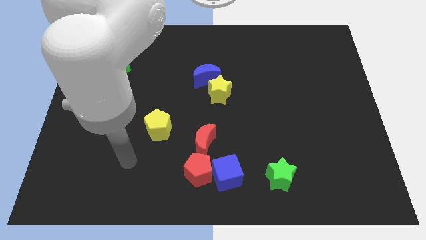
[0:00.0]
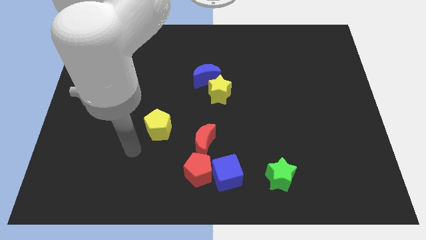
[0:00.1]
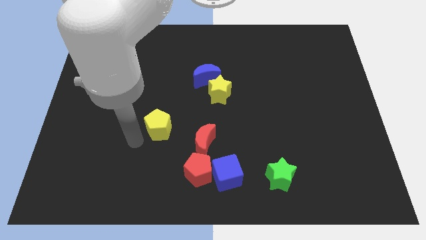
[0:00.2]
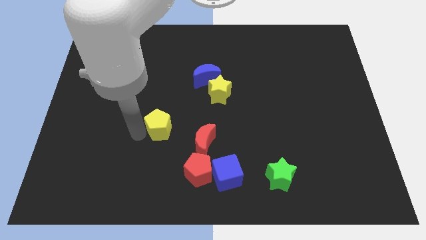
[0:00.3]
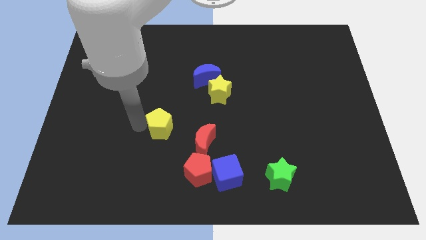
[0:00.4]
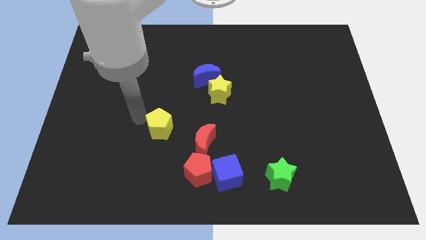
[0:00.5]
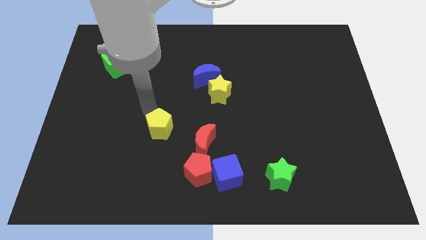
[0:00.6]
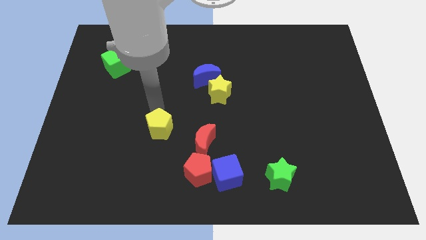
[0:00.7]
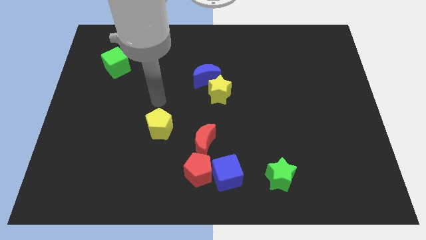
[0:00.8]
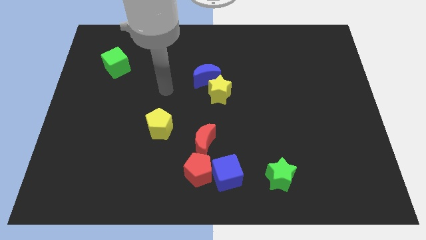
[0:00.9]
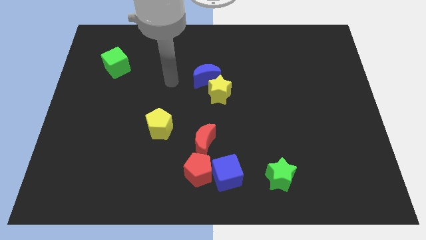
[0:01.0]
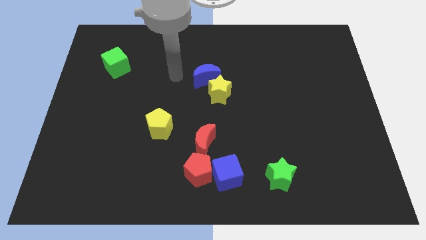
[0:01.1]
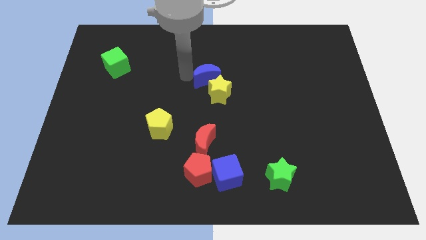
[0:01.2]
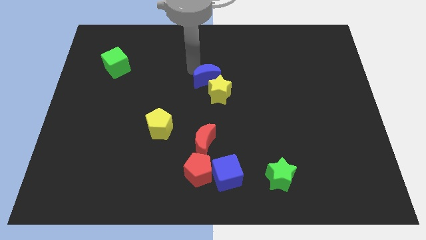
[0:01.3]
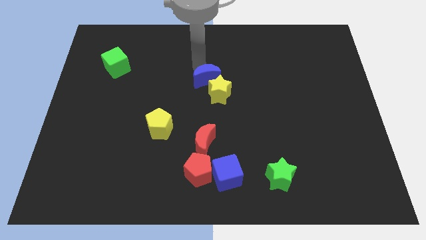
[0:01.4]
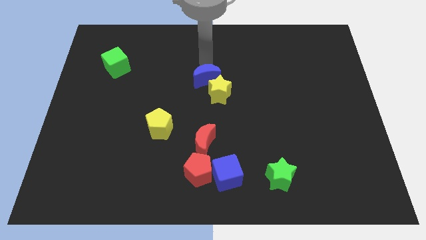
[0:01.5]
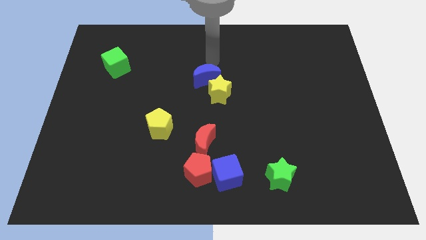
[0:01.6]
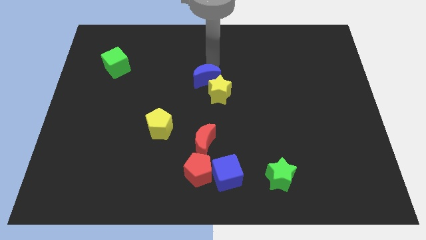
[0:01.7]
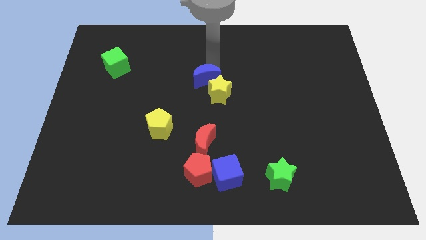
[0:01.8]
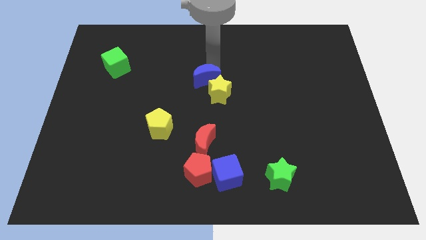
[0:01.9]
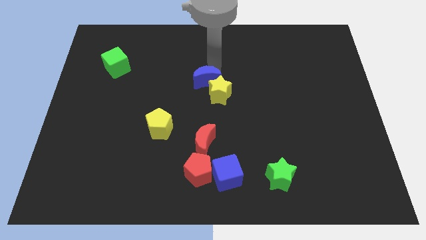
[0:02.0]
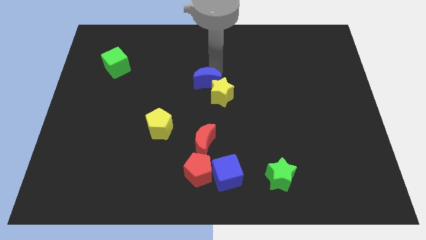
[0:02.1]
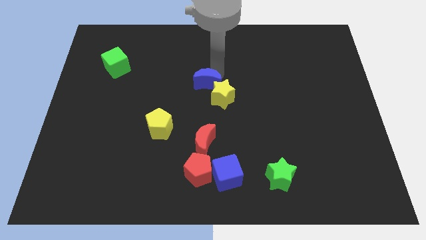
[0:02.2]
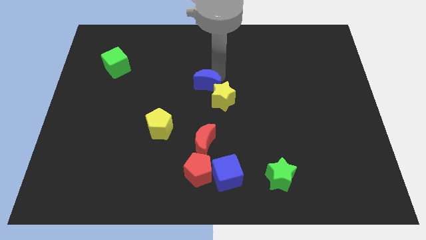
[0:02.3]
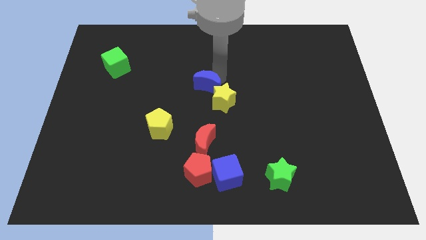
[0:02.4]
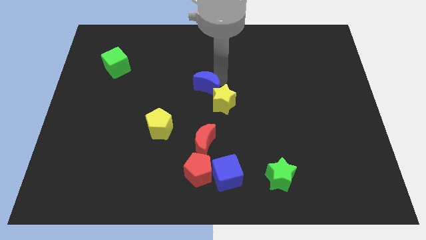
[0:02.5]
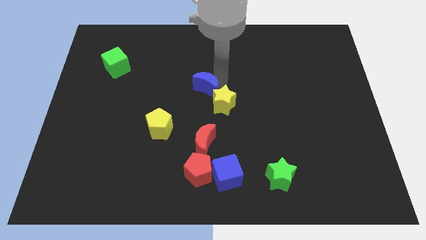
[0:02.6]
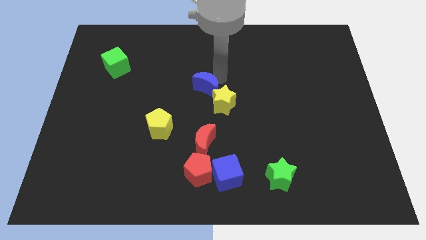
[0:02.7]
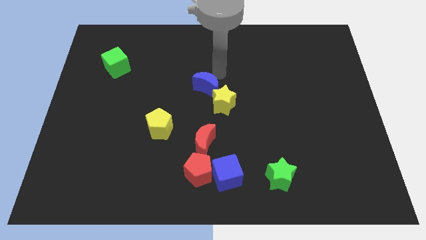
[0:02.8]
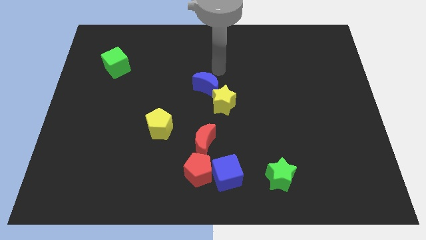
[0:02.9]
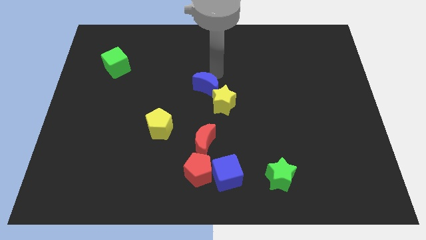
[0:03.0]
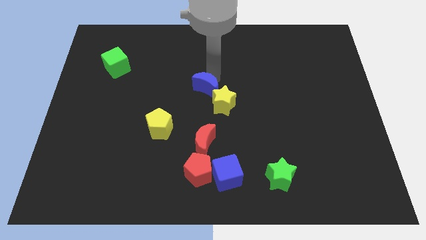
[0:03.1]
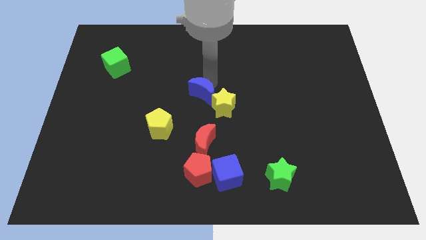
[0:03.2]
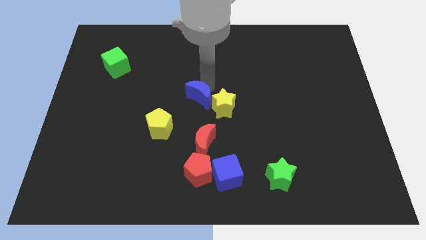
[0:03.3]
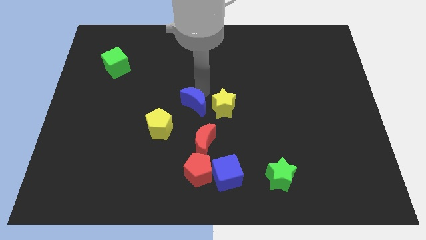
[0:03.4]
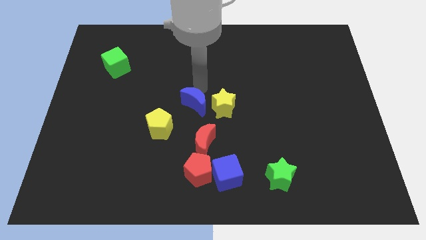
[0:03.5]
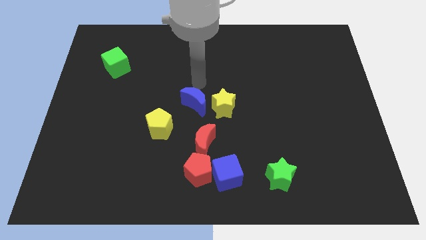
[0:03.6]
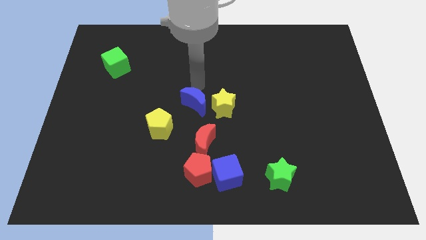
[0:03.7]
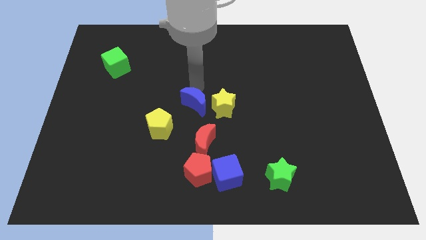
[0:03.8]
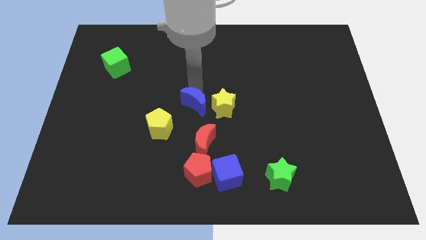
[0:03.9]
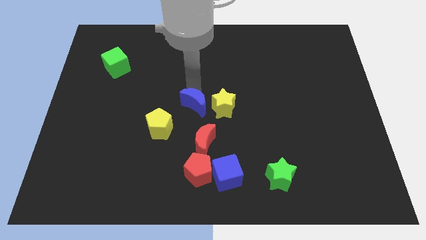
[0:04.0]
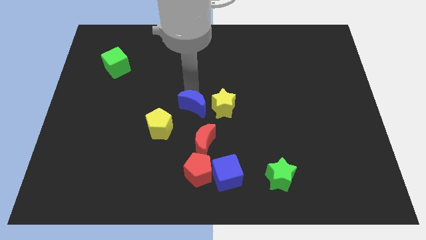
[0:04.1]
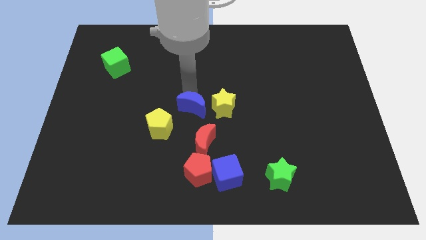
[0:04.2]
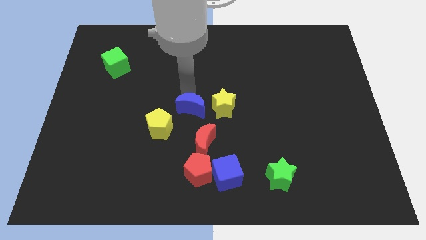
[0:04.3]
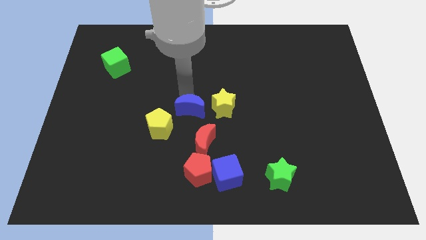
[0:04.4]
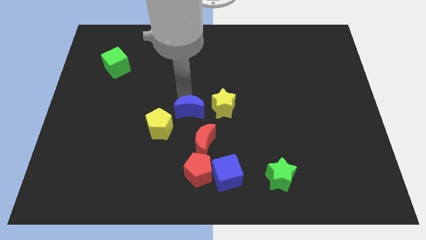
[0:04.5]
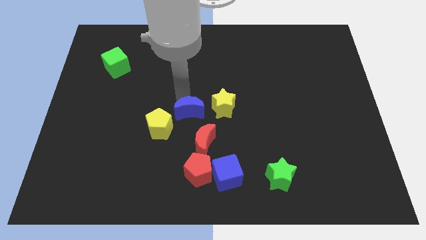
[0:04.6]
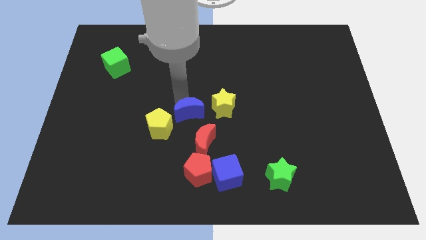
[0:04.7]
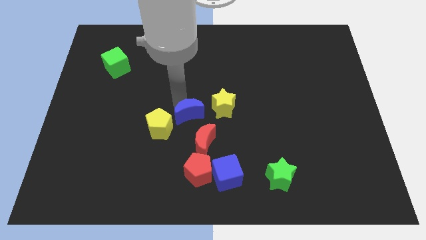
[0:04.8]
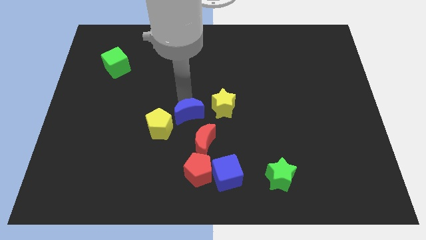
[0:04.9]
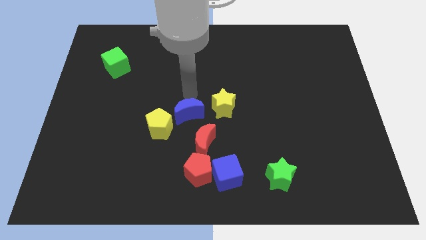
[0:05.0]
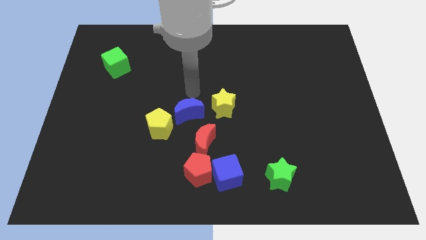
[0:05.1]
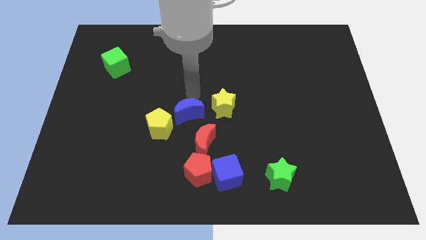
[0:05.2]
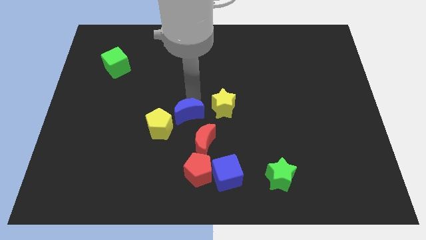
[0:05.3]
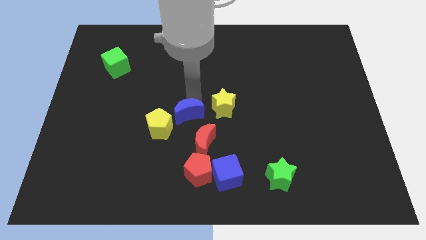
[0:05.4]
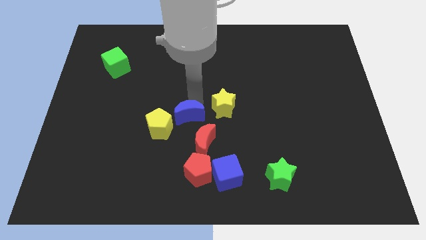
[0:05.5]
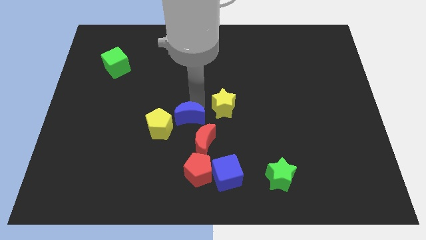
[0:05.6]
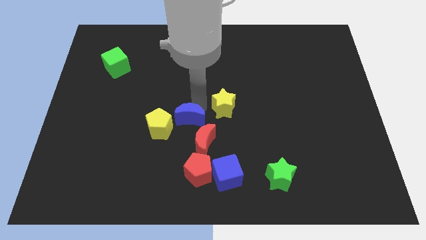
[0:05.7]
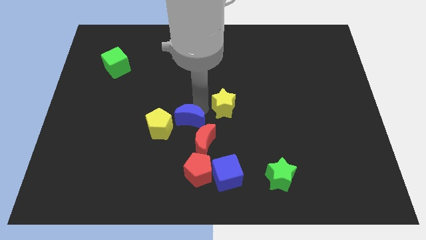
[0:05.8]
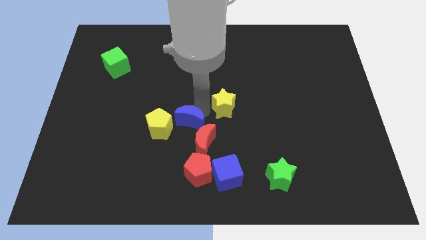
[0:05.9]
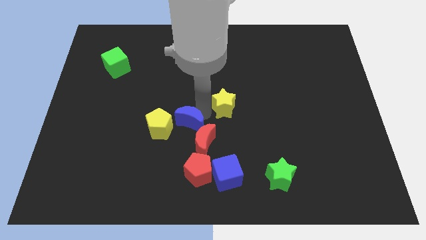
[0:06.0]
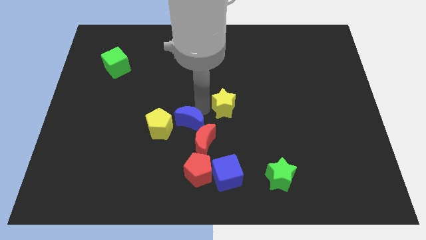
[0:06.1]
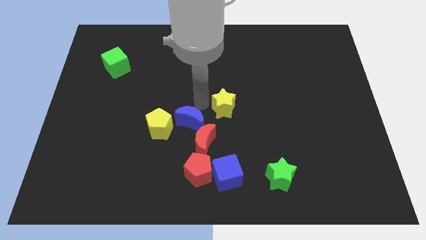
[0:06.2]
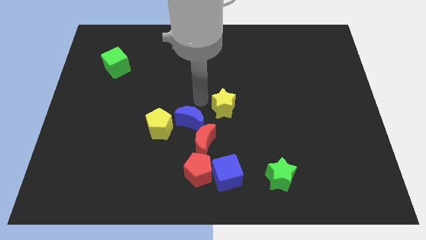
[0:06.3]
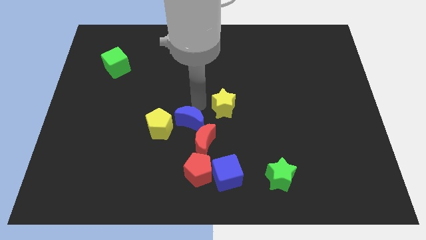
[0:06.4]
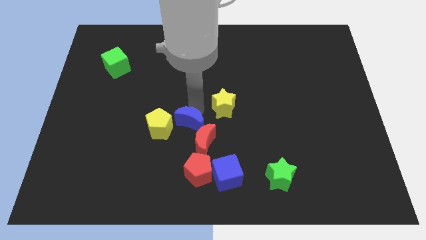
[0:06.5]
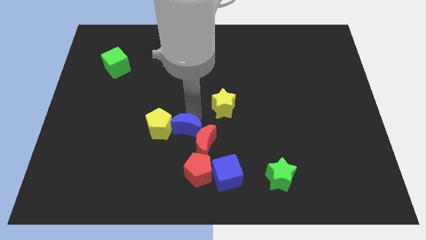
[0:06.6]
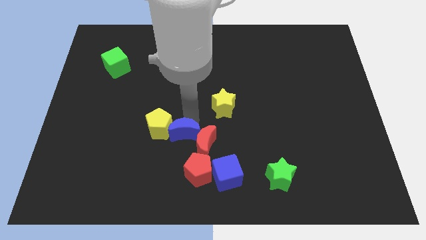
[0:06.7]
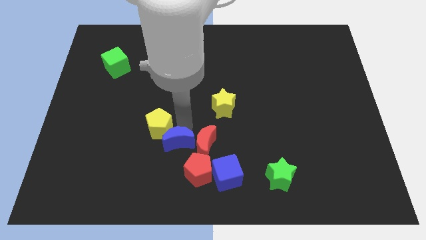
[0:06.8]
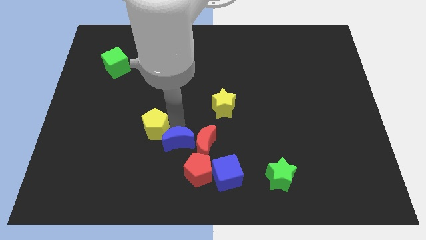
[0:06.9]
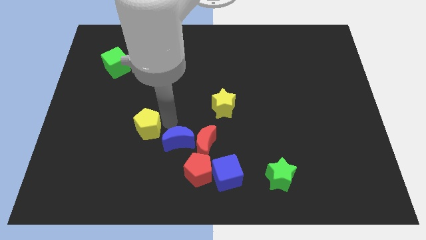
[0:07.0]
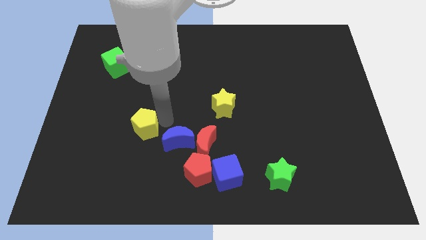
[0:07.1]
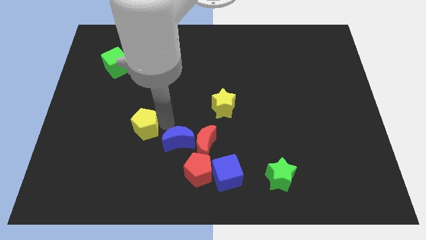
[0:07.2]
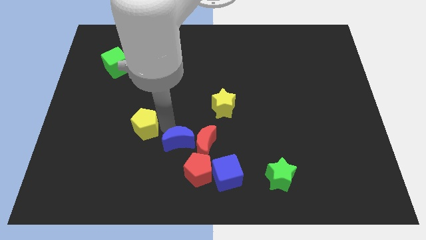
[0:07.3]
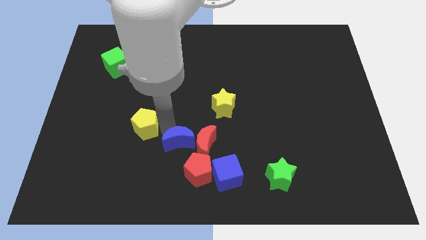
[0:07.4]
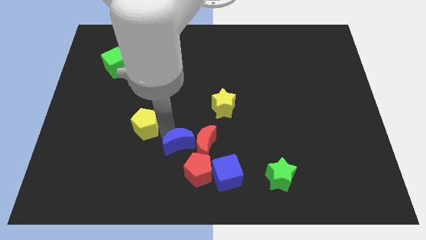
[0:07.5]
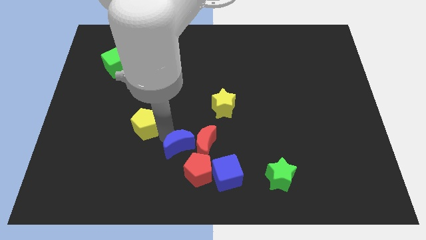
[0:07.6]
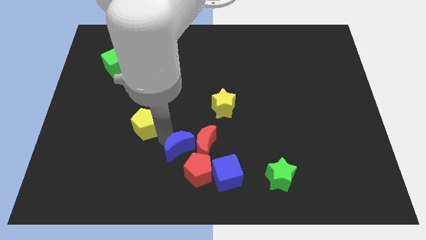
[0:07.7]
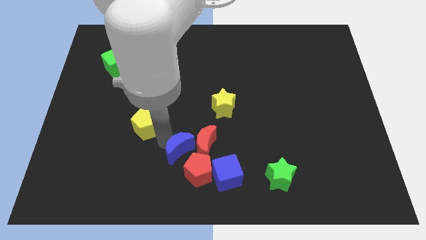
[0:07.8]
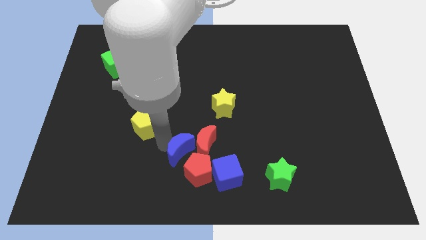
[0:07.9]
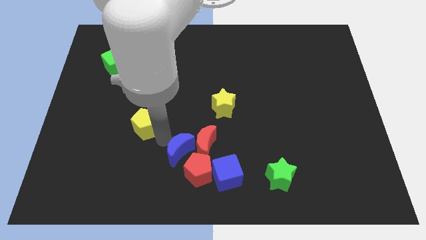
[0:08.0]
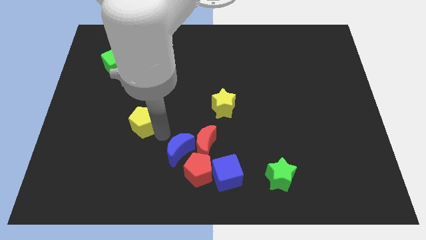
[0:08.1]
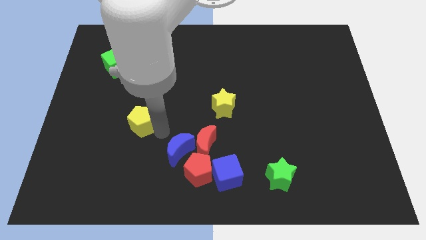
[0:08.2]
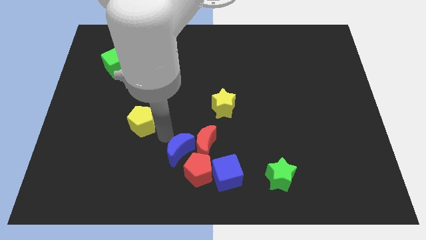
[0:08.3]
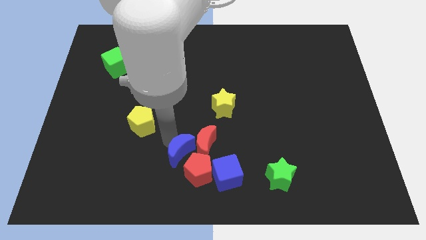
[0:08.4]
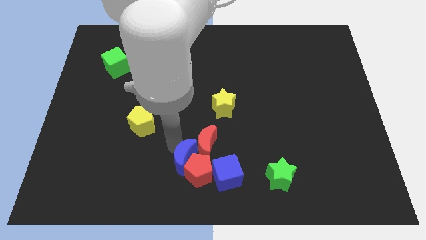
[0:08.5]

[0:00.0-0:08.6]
move the blue moon towards the red pentagon
